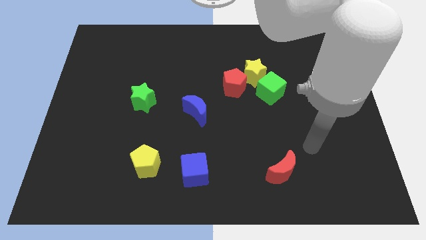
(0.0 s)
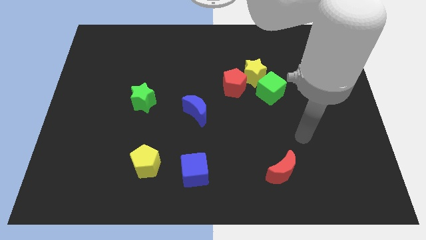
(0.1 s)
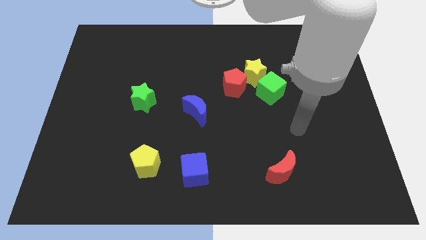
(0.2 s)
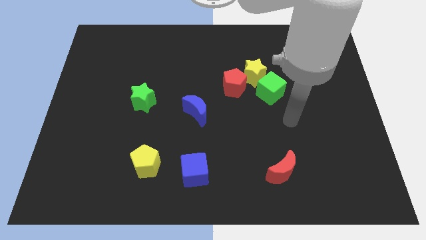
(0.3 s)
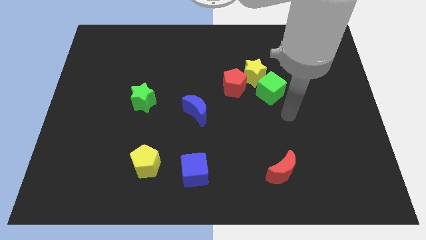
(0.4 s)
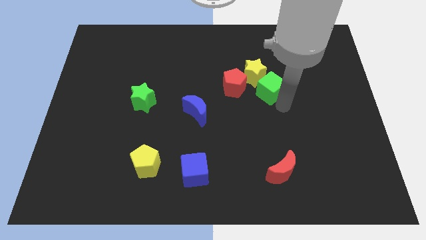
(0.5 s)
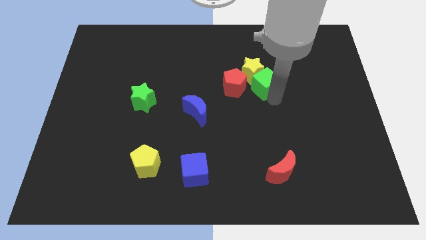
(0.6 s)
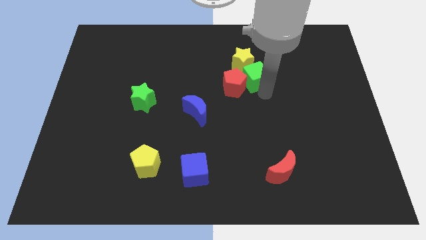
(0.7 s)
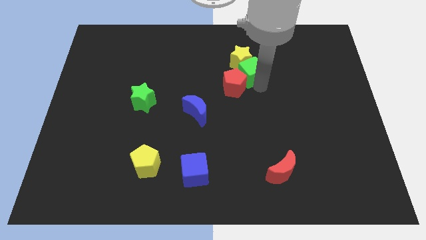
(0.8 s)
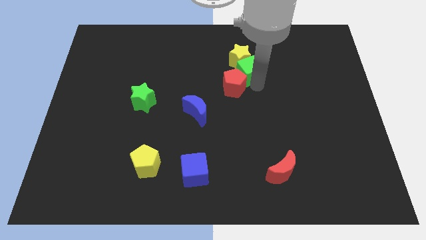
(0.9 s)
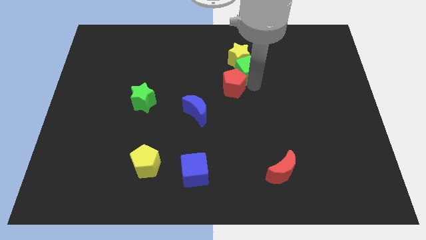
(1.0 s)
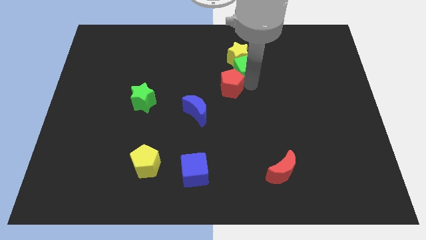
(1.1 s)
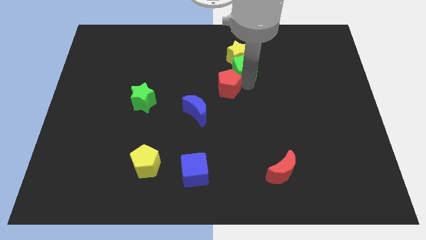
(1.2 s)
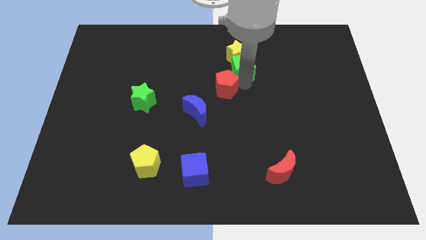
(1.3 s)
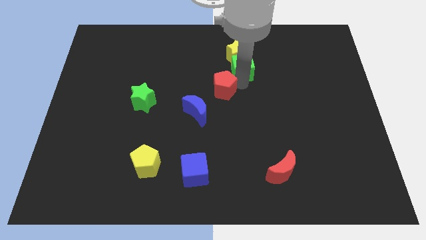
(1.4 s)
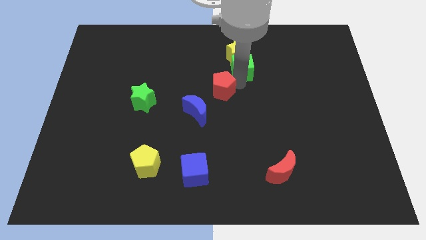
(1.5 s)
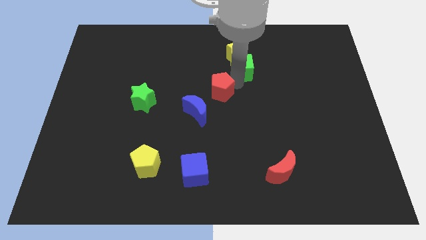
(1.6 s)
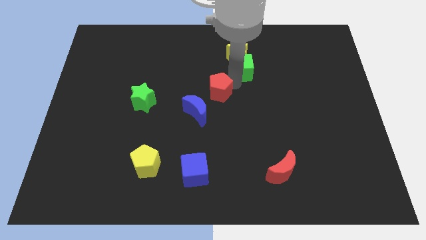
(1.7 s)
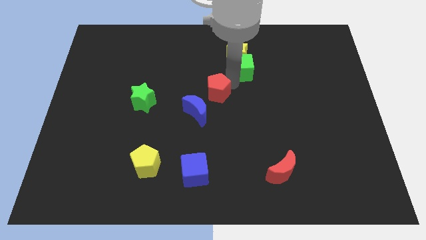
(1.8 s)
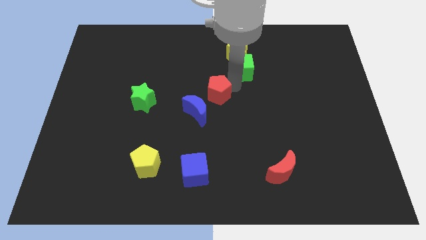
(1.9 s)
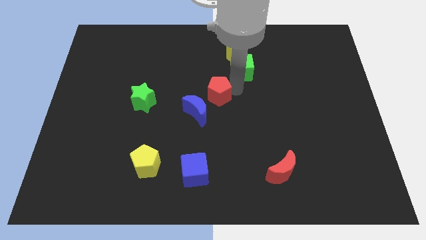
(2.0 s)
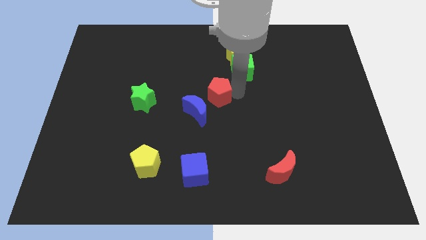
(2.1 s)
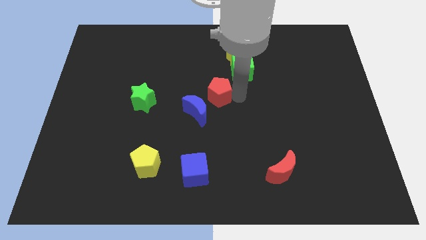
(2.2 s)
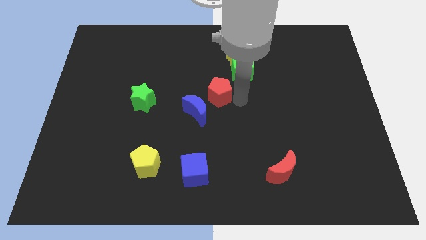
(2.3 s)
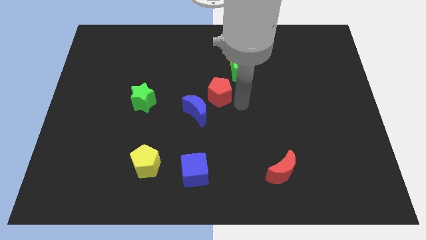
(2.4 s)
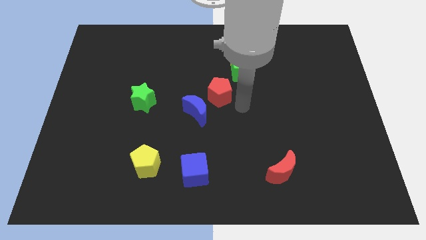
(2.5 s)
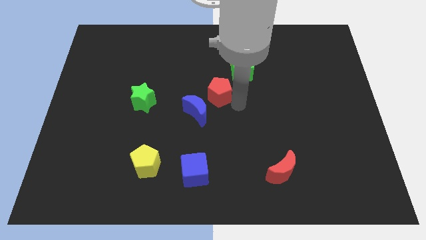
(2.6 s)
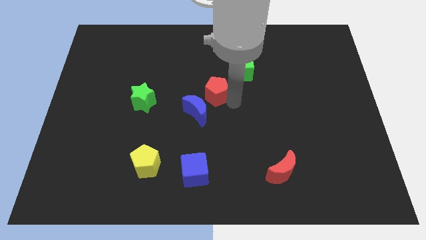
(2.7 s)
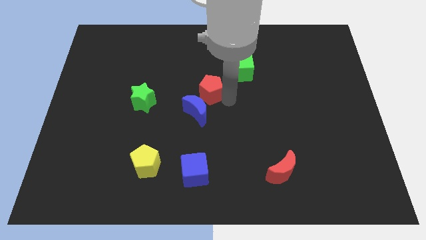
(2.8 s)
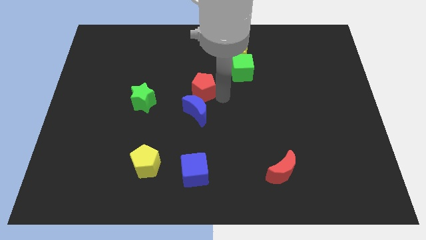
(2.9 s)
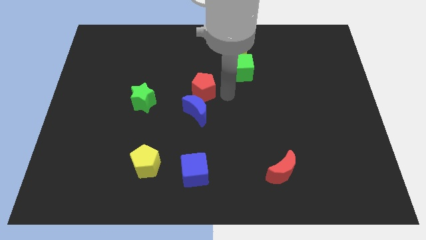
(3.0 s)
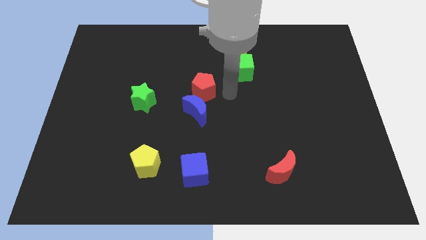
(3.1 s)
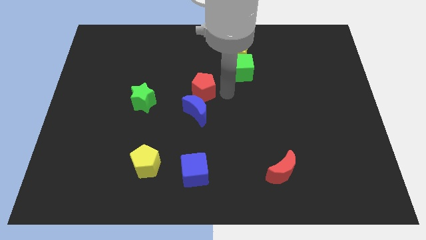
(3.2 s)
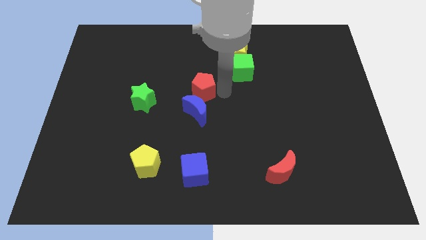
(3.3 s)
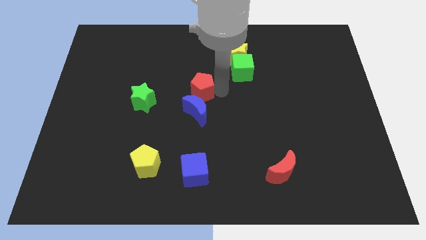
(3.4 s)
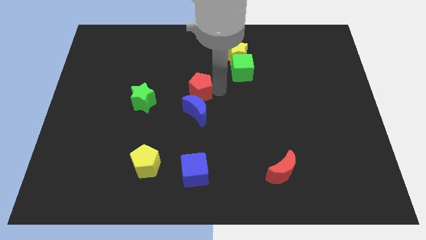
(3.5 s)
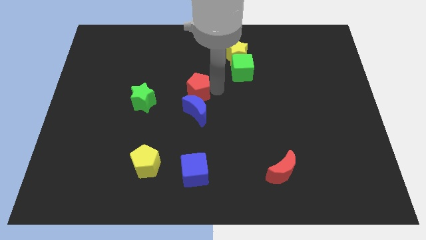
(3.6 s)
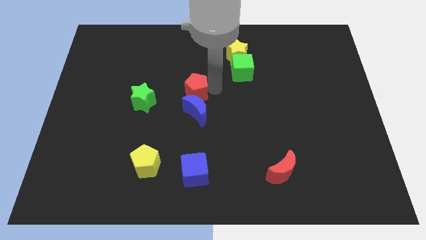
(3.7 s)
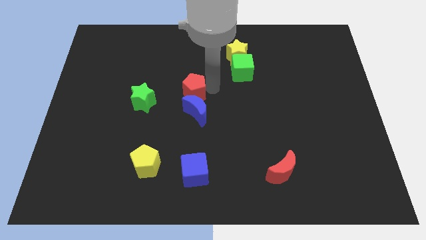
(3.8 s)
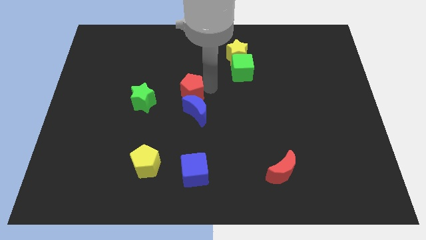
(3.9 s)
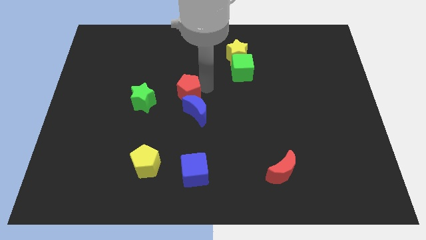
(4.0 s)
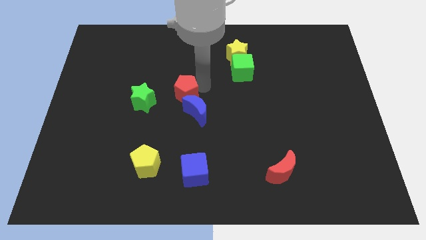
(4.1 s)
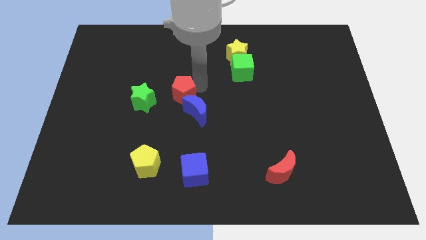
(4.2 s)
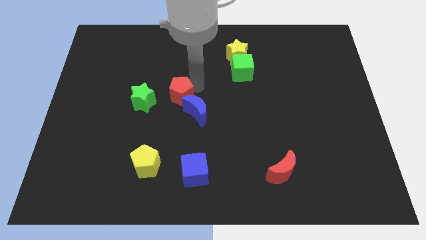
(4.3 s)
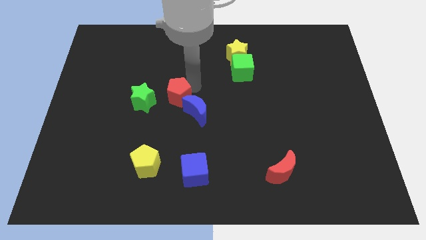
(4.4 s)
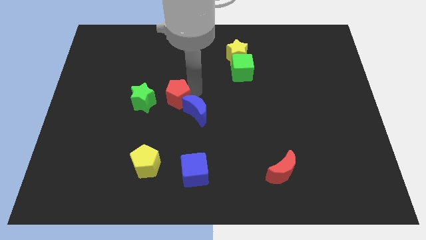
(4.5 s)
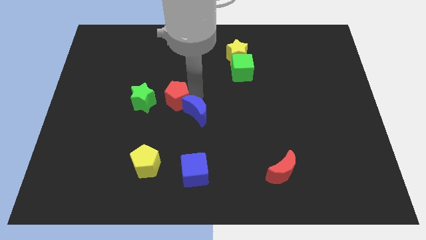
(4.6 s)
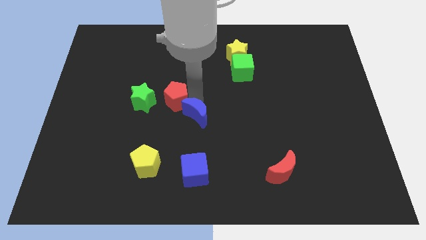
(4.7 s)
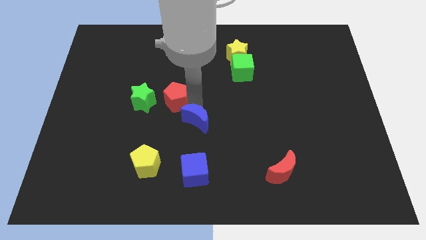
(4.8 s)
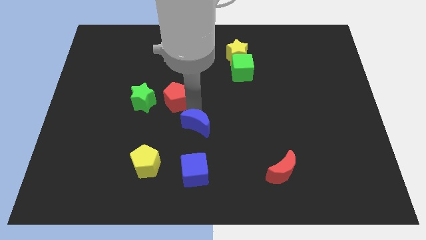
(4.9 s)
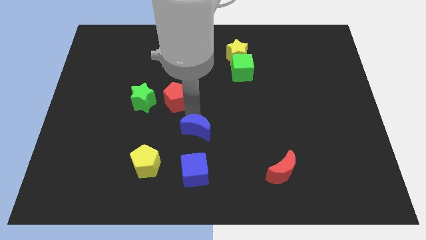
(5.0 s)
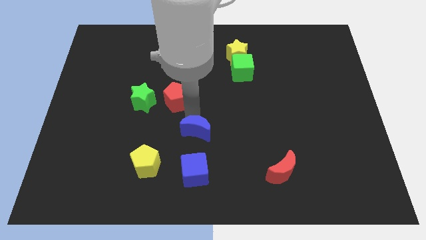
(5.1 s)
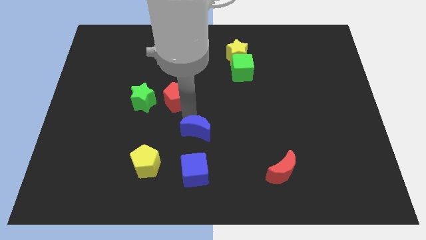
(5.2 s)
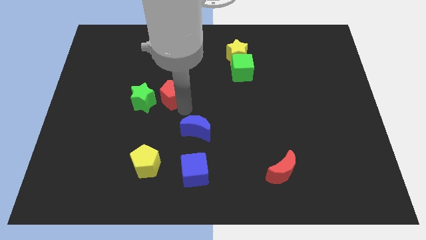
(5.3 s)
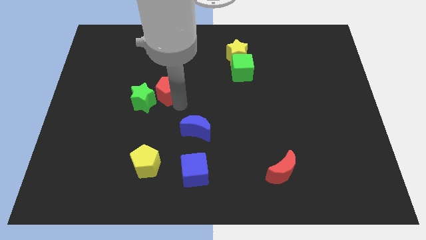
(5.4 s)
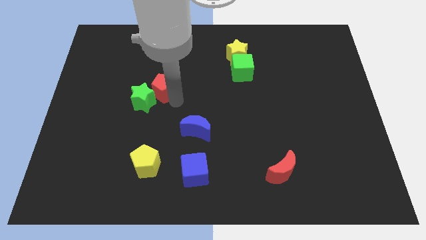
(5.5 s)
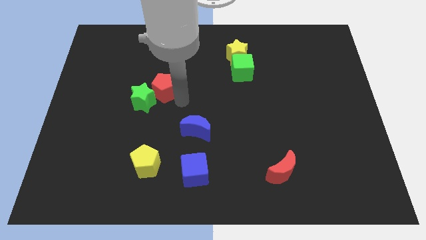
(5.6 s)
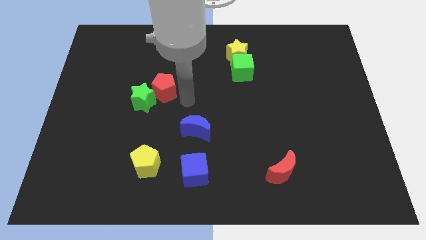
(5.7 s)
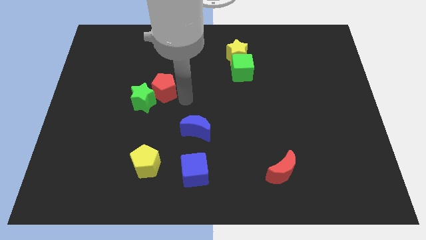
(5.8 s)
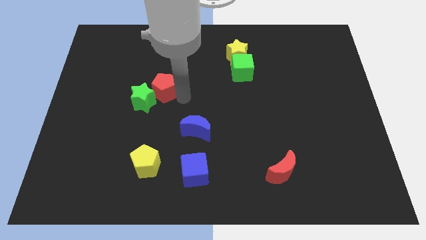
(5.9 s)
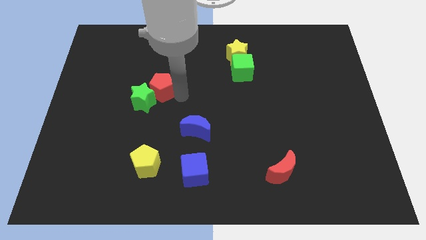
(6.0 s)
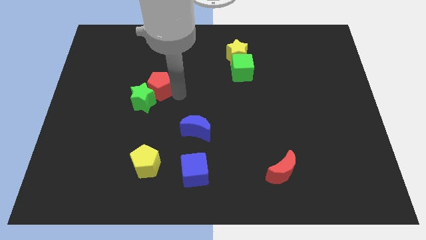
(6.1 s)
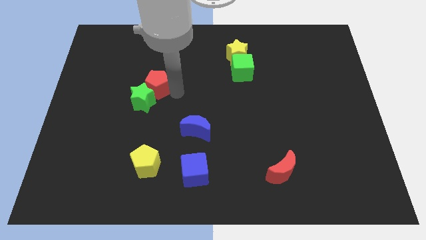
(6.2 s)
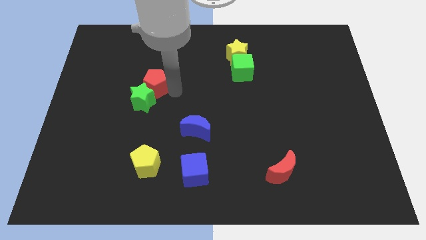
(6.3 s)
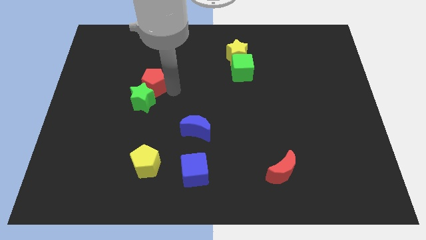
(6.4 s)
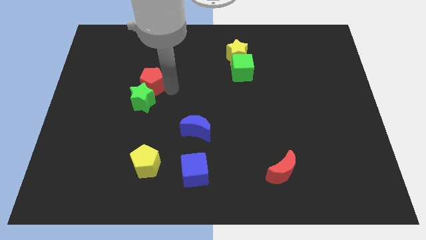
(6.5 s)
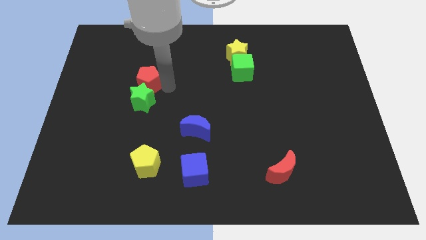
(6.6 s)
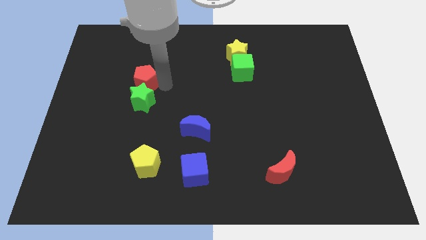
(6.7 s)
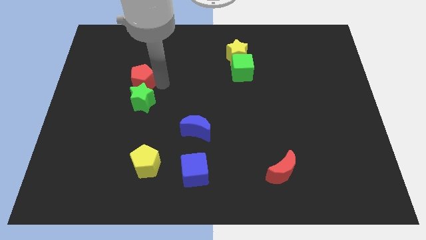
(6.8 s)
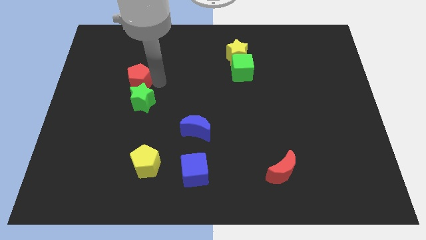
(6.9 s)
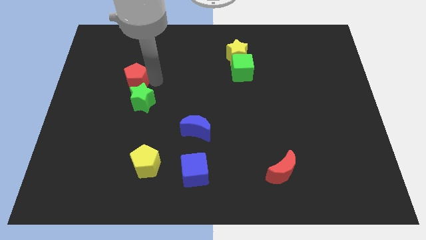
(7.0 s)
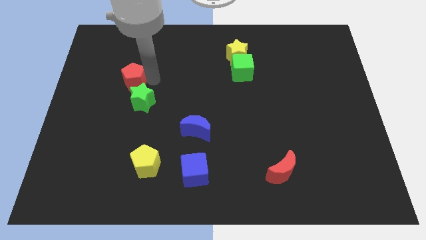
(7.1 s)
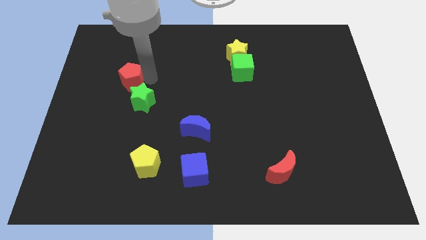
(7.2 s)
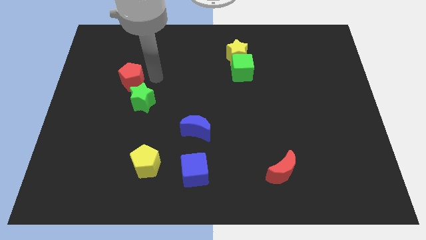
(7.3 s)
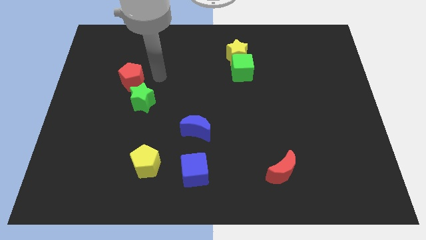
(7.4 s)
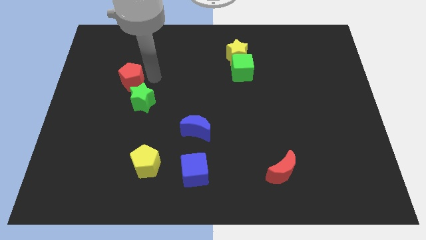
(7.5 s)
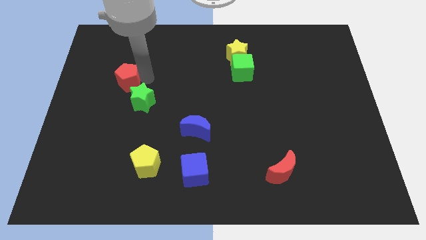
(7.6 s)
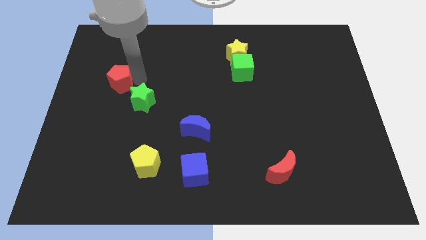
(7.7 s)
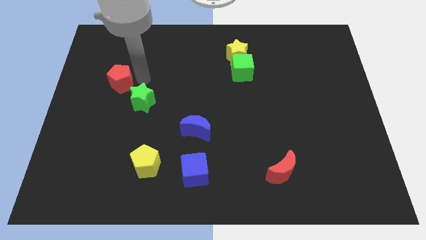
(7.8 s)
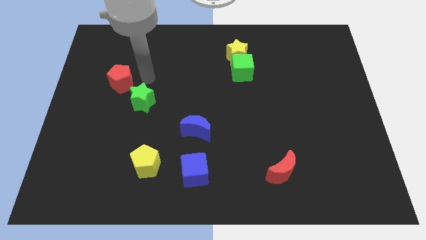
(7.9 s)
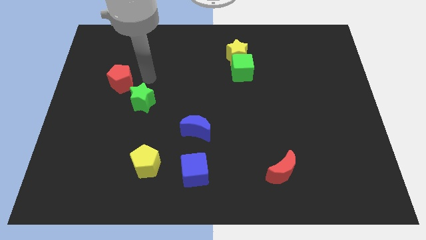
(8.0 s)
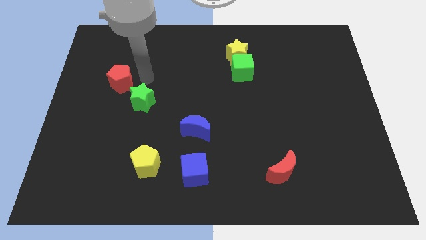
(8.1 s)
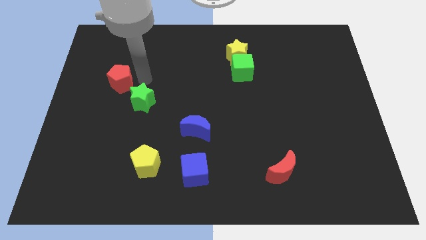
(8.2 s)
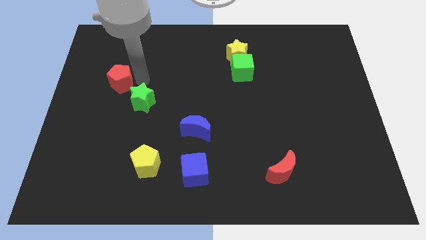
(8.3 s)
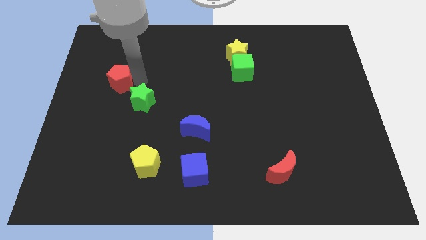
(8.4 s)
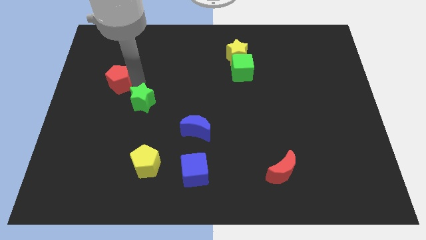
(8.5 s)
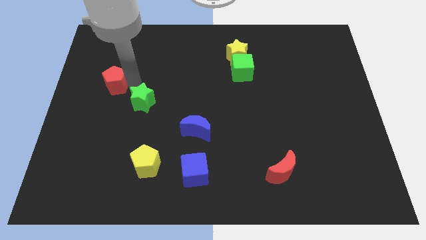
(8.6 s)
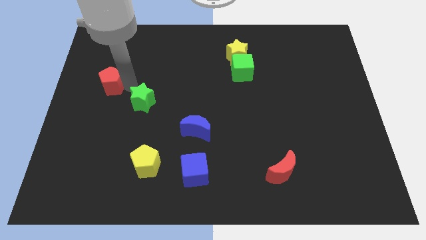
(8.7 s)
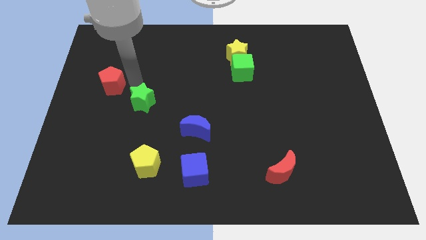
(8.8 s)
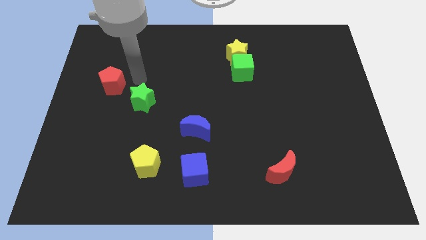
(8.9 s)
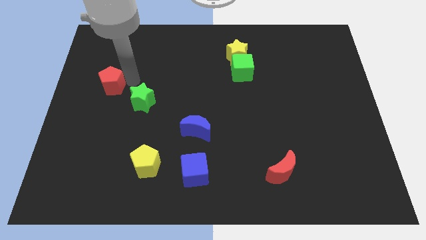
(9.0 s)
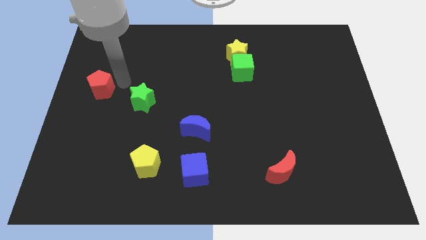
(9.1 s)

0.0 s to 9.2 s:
move the red pentagon to the left side of the board
